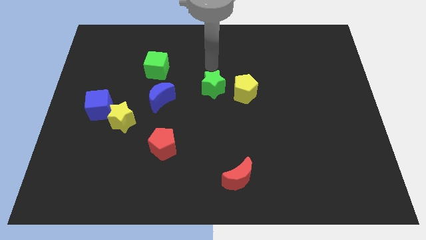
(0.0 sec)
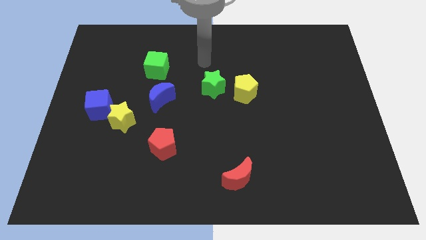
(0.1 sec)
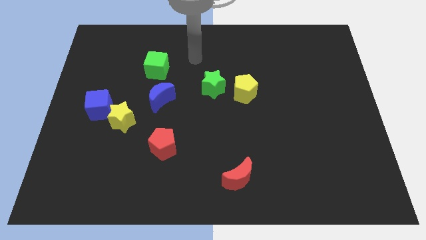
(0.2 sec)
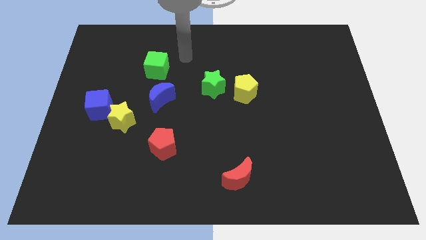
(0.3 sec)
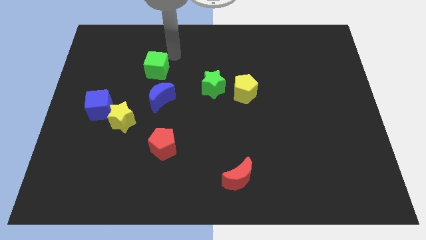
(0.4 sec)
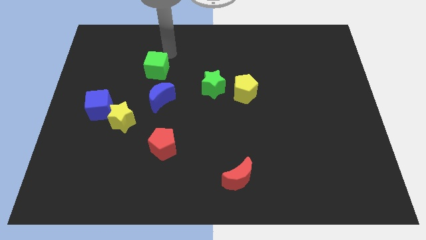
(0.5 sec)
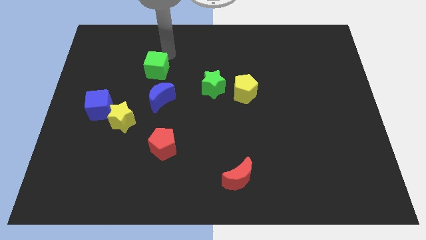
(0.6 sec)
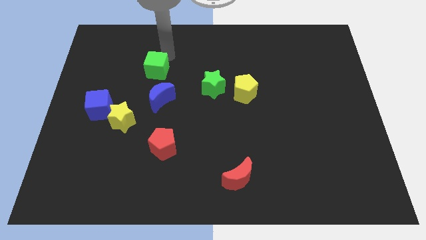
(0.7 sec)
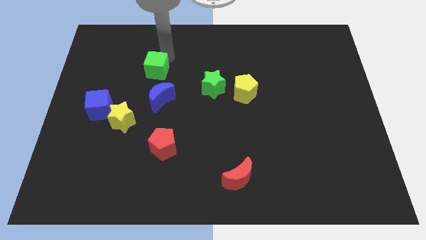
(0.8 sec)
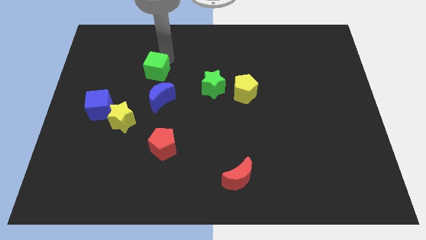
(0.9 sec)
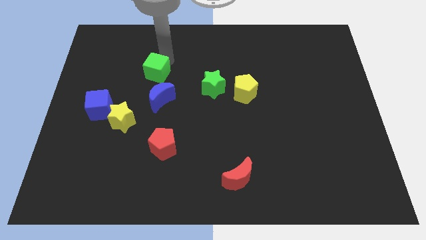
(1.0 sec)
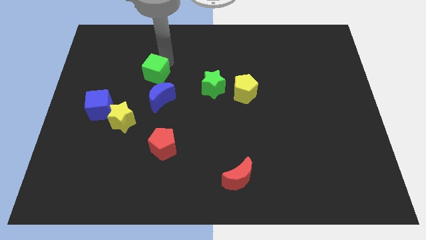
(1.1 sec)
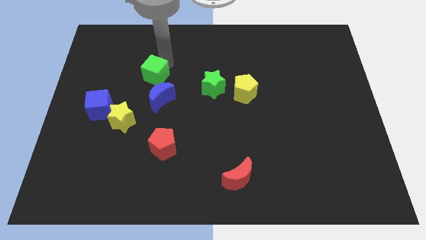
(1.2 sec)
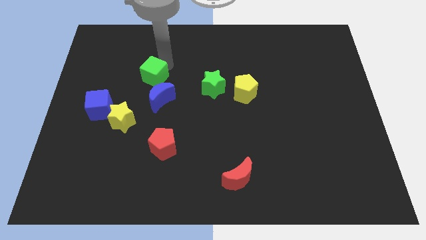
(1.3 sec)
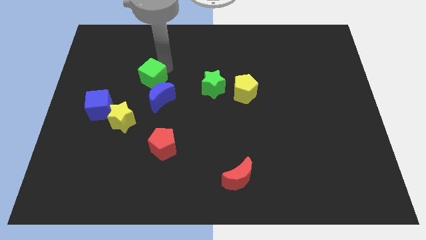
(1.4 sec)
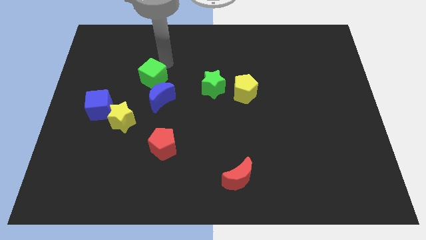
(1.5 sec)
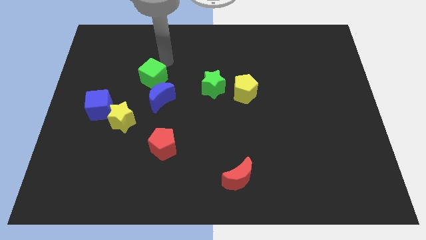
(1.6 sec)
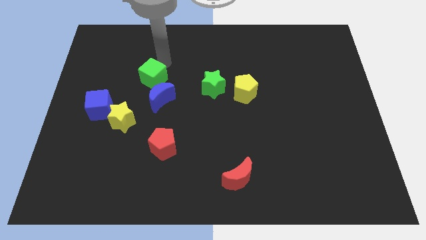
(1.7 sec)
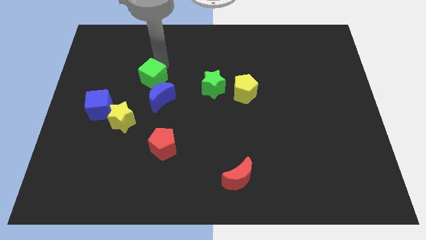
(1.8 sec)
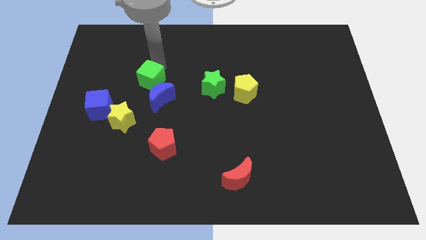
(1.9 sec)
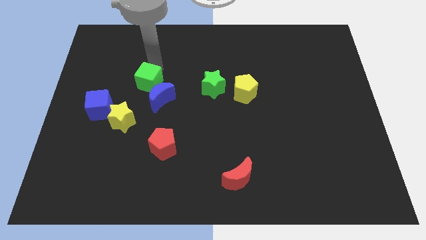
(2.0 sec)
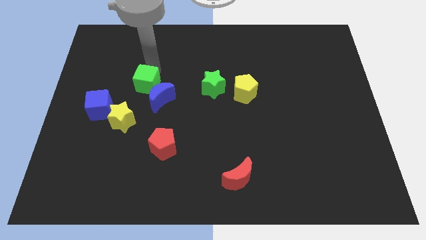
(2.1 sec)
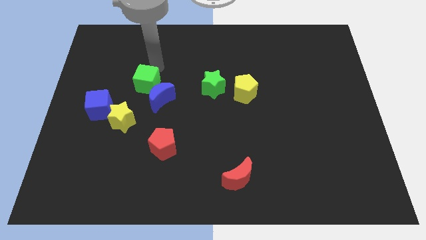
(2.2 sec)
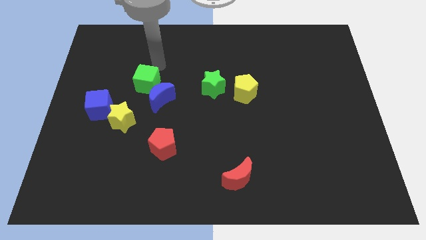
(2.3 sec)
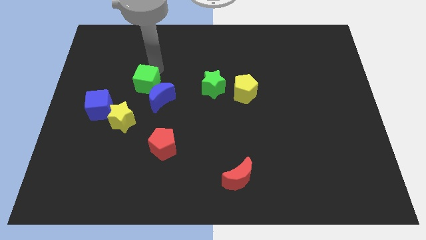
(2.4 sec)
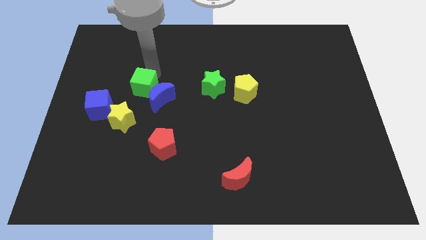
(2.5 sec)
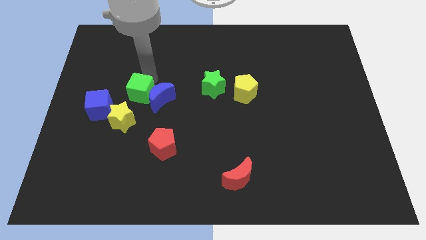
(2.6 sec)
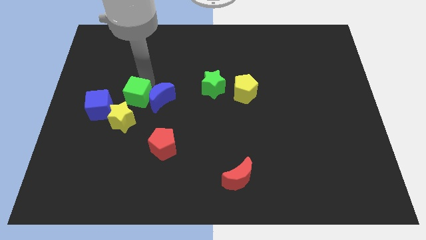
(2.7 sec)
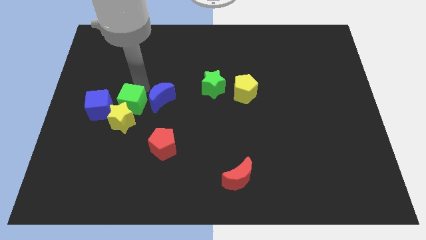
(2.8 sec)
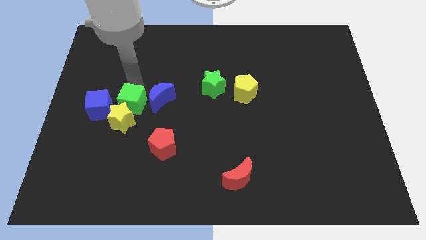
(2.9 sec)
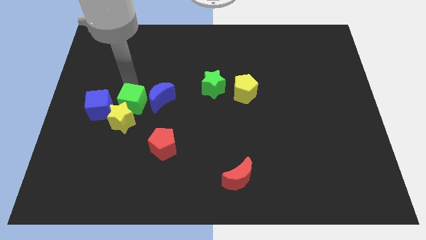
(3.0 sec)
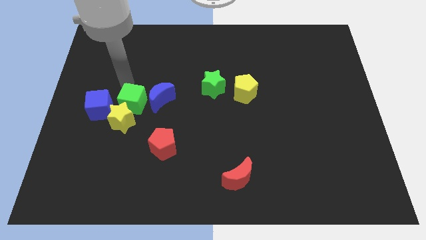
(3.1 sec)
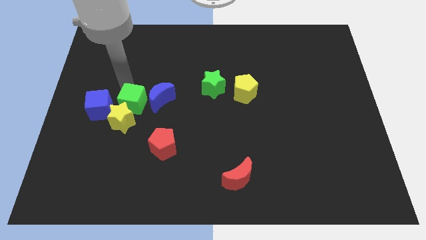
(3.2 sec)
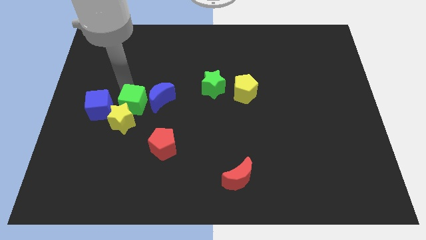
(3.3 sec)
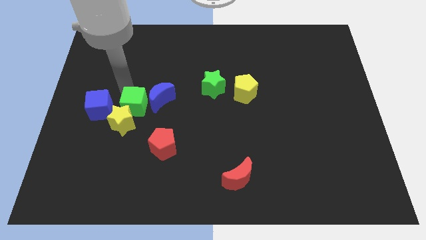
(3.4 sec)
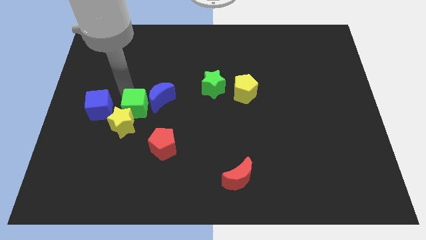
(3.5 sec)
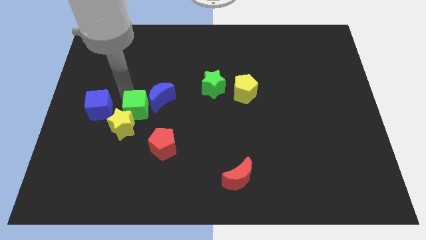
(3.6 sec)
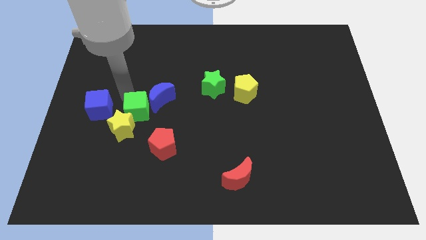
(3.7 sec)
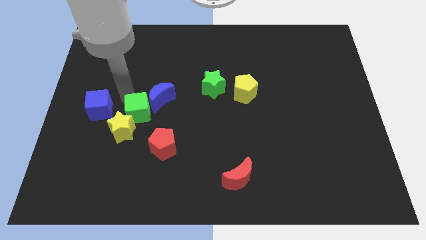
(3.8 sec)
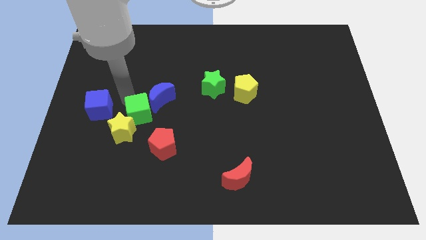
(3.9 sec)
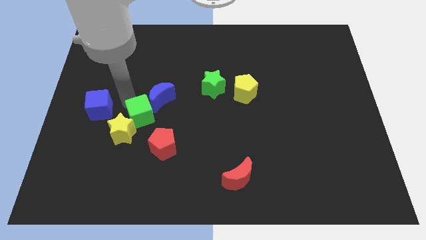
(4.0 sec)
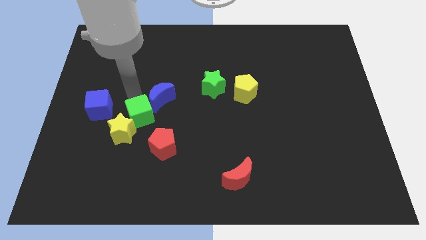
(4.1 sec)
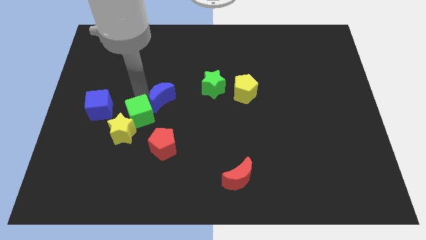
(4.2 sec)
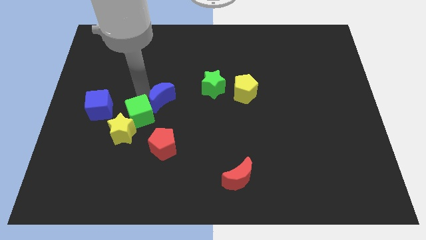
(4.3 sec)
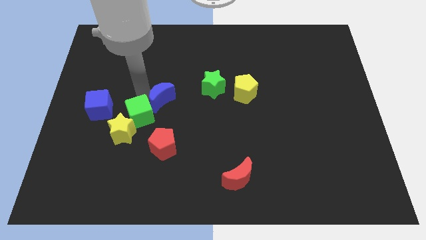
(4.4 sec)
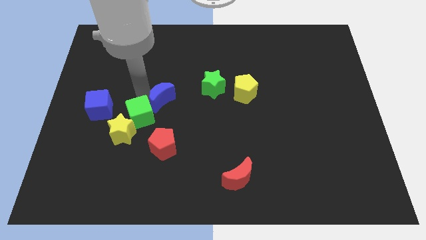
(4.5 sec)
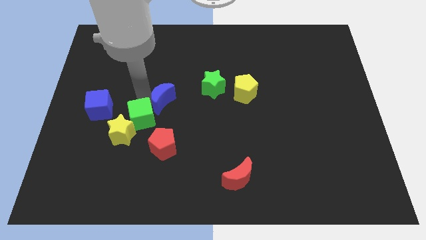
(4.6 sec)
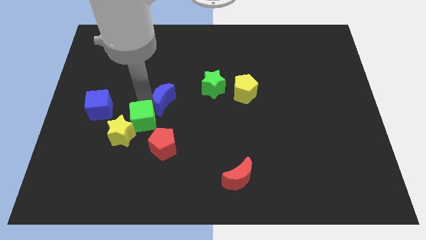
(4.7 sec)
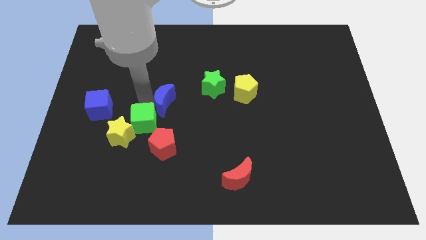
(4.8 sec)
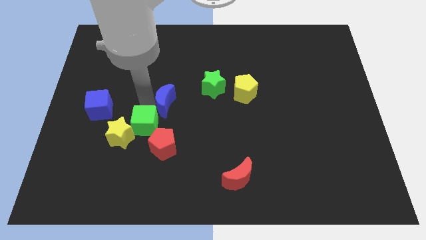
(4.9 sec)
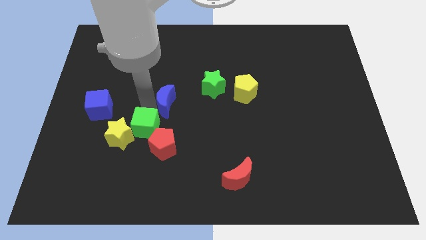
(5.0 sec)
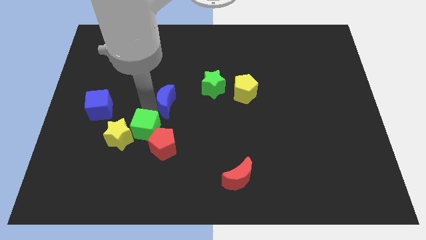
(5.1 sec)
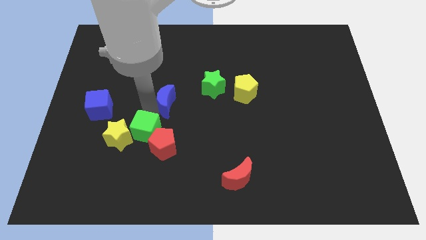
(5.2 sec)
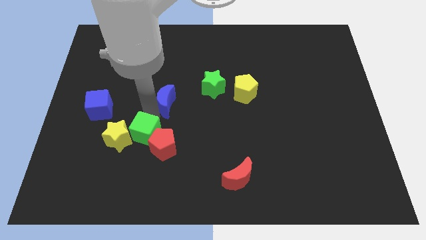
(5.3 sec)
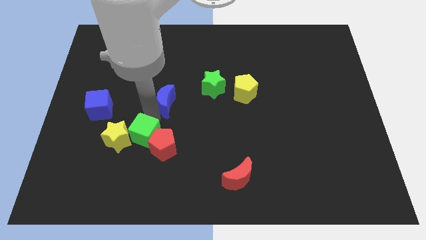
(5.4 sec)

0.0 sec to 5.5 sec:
push the green cube downwards

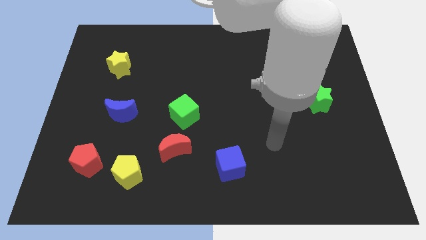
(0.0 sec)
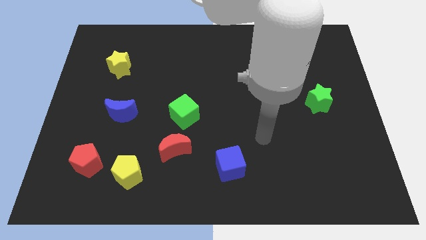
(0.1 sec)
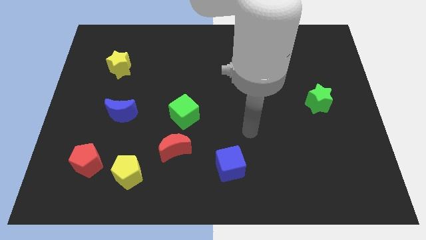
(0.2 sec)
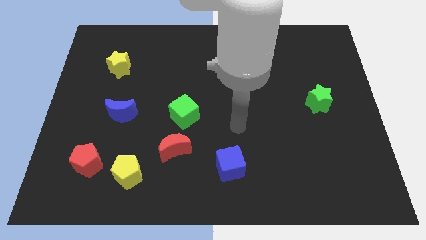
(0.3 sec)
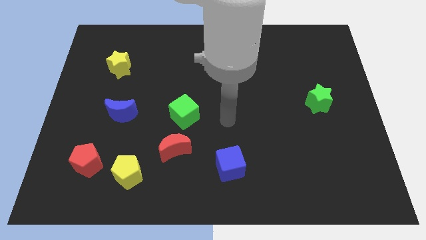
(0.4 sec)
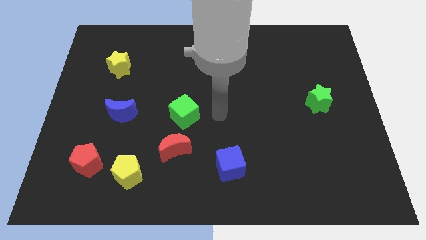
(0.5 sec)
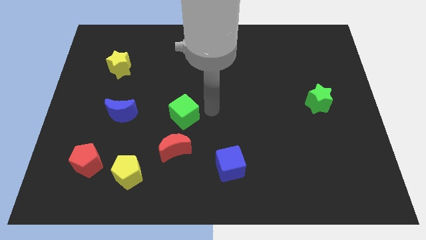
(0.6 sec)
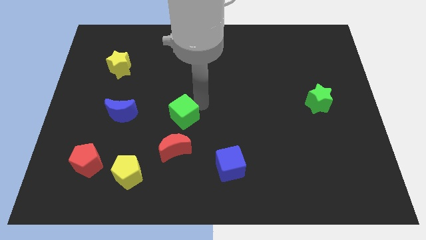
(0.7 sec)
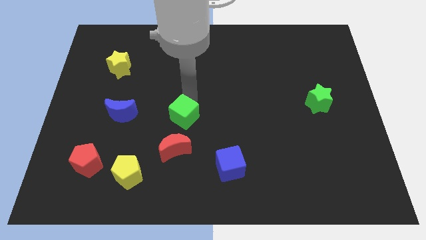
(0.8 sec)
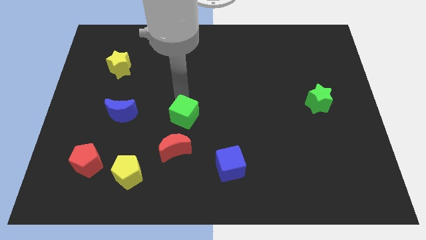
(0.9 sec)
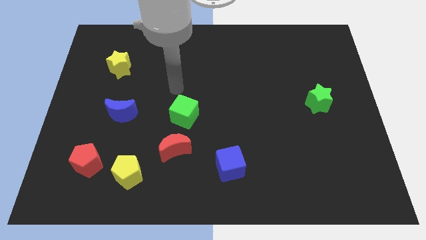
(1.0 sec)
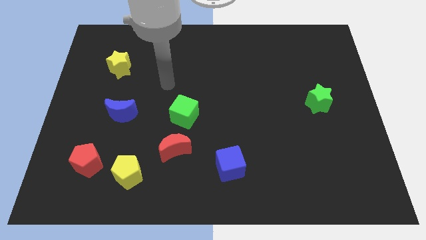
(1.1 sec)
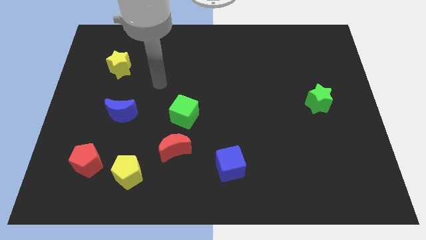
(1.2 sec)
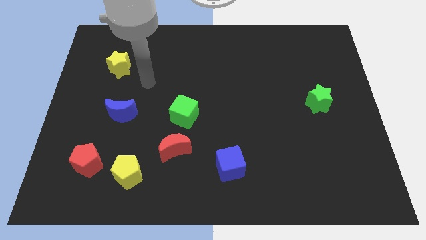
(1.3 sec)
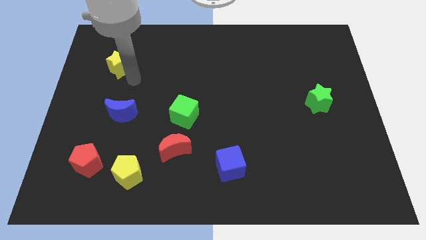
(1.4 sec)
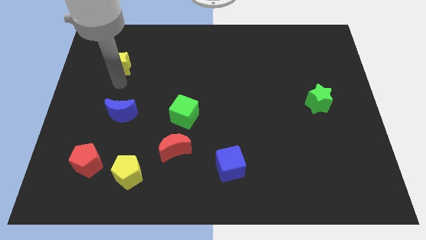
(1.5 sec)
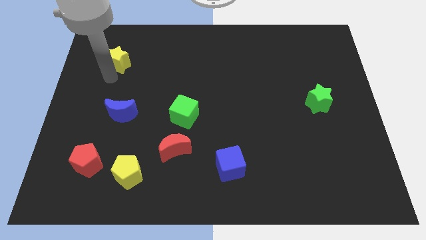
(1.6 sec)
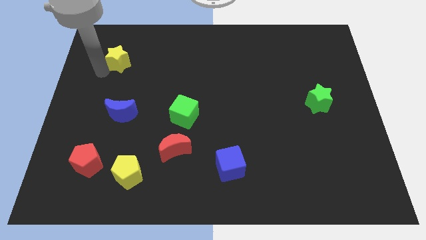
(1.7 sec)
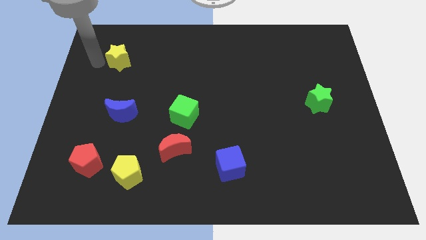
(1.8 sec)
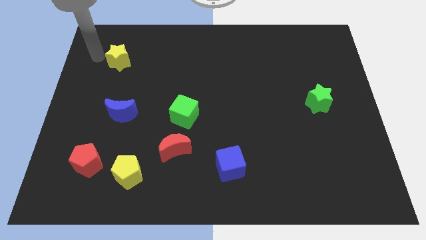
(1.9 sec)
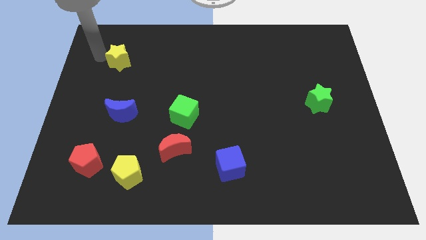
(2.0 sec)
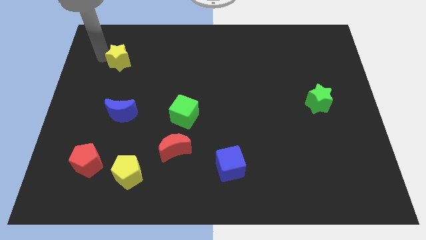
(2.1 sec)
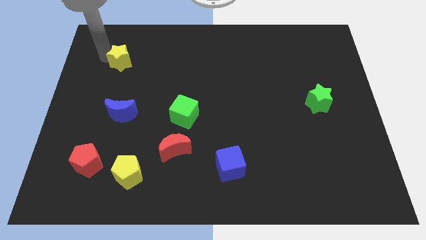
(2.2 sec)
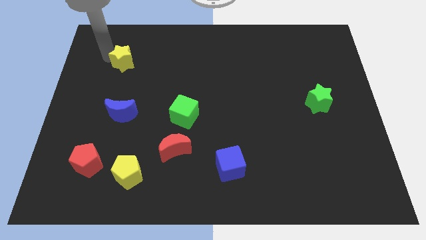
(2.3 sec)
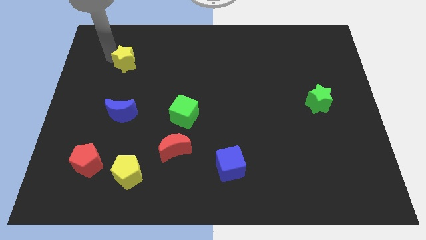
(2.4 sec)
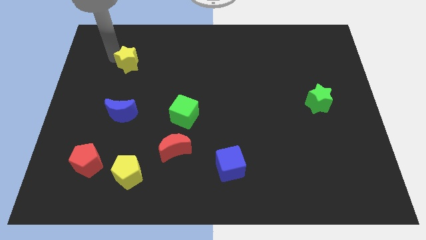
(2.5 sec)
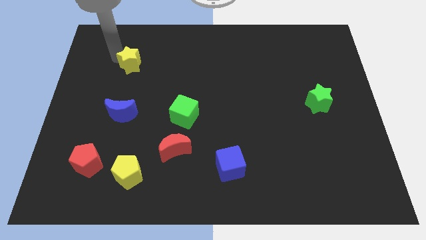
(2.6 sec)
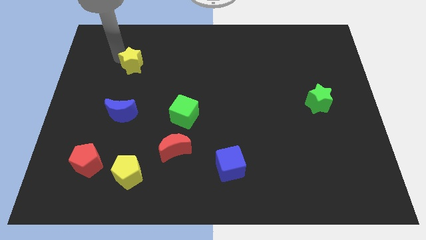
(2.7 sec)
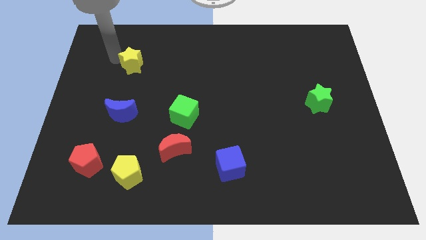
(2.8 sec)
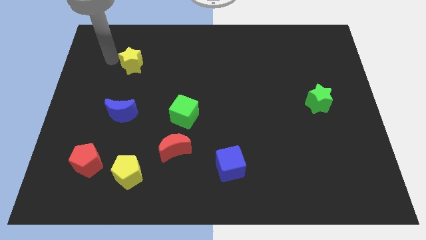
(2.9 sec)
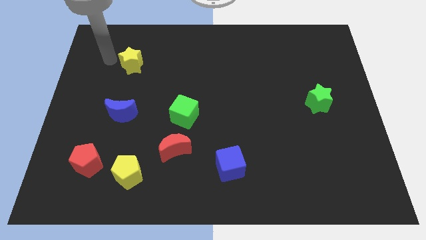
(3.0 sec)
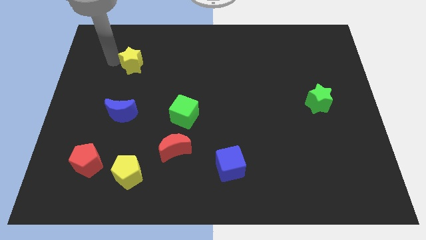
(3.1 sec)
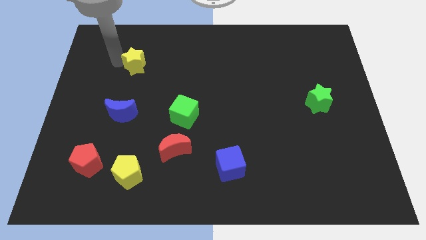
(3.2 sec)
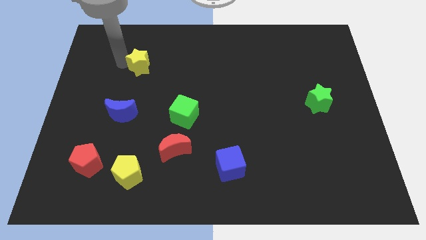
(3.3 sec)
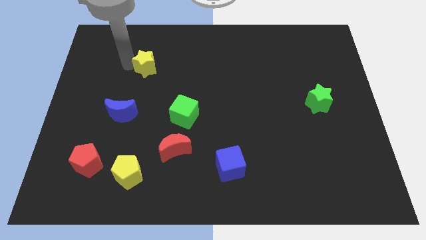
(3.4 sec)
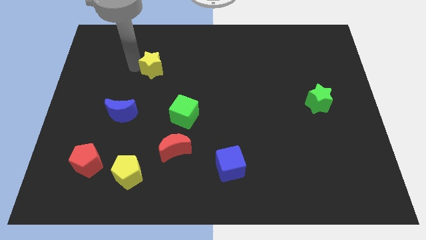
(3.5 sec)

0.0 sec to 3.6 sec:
slightly slide the yellow star to the right
